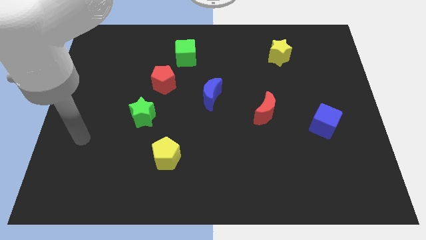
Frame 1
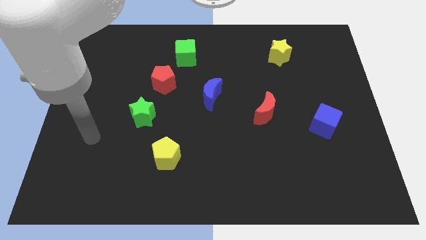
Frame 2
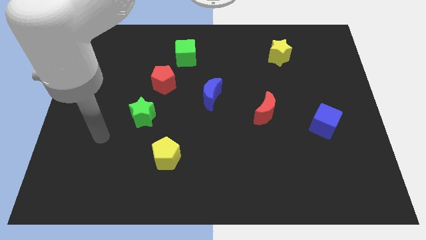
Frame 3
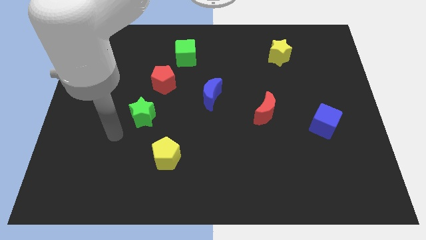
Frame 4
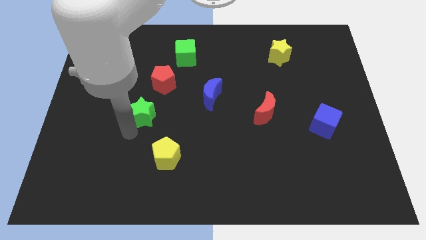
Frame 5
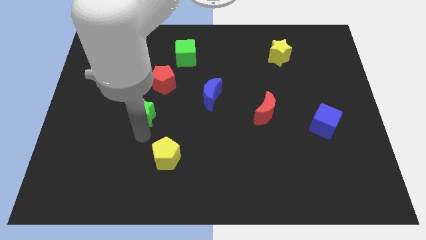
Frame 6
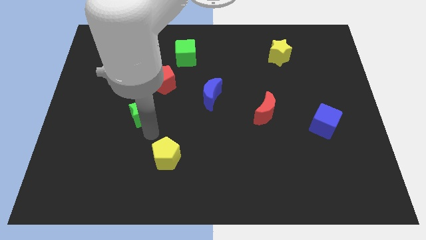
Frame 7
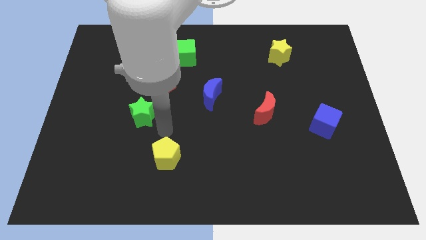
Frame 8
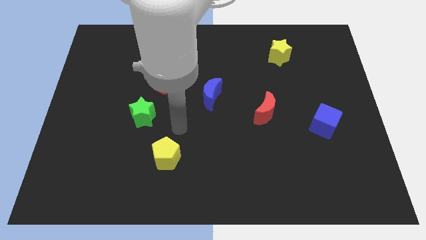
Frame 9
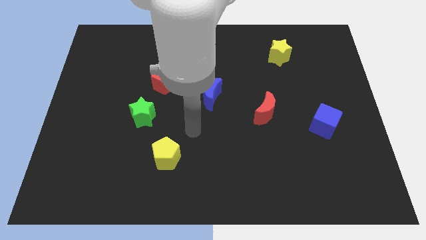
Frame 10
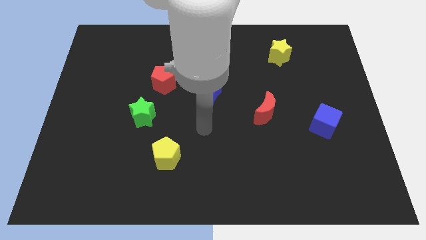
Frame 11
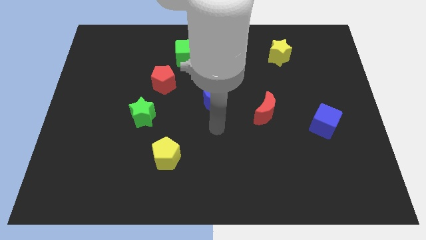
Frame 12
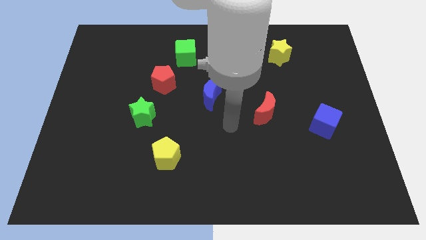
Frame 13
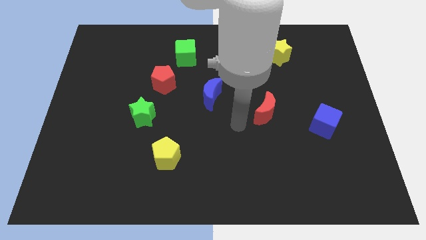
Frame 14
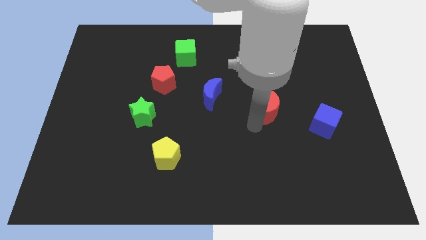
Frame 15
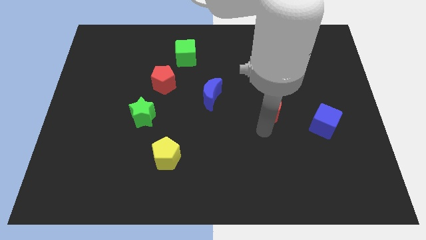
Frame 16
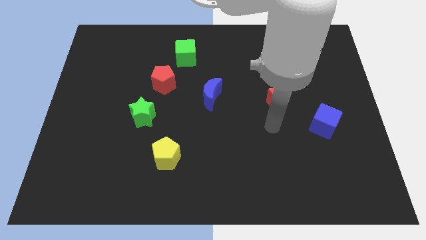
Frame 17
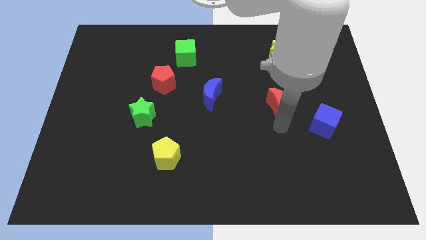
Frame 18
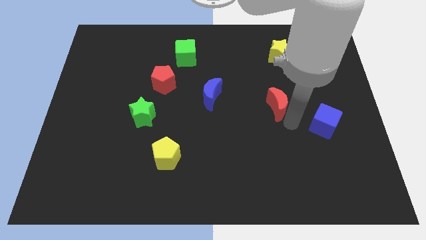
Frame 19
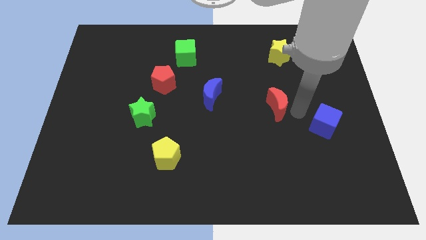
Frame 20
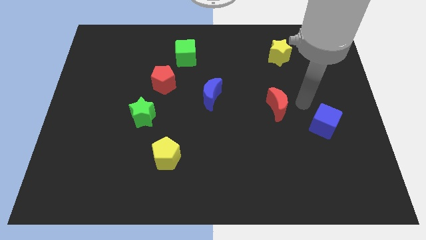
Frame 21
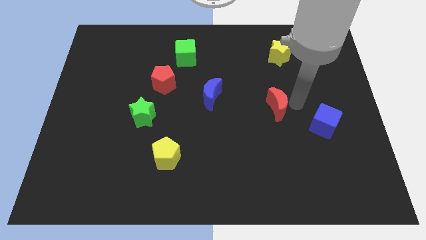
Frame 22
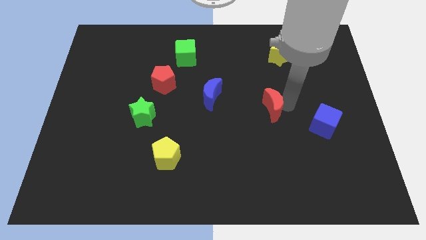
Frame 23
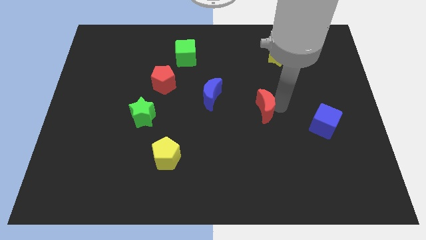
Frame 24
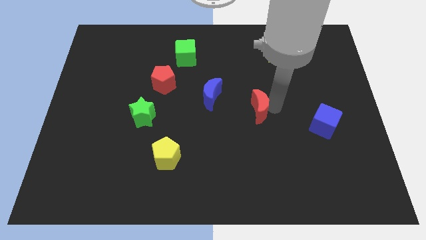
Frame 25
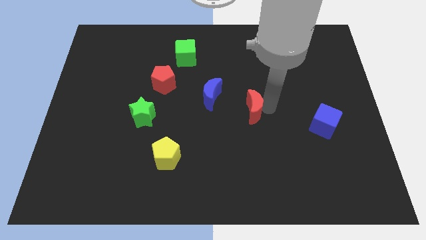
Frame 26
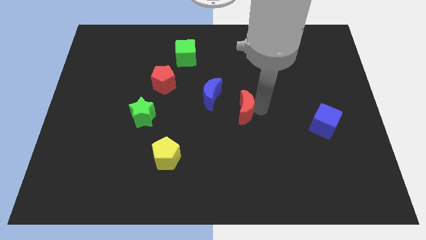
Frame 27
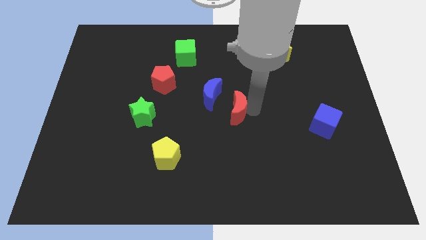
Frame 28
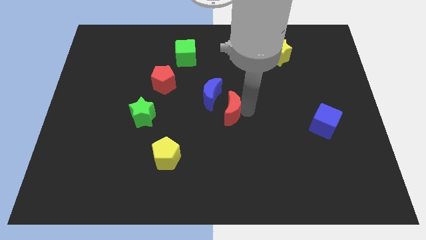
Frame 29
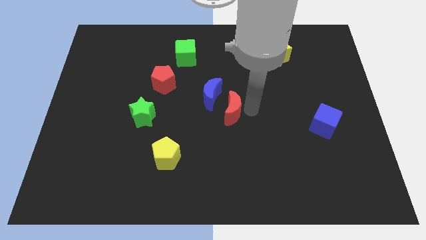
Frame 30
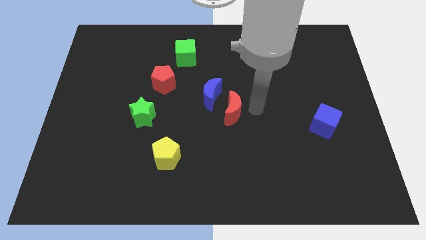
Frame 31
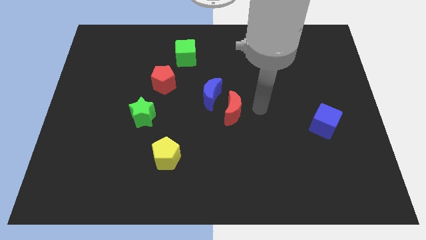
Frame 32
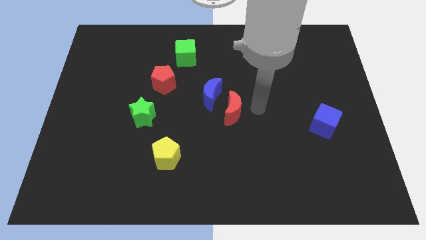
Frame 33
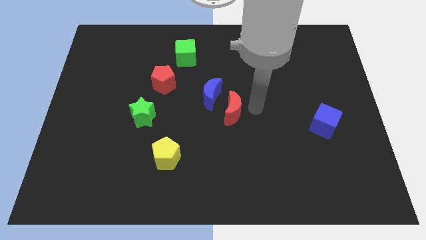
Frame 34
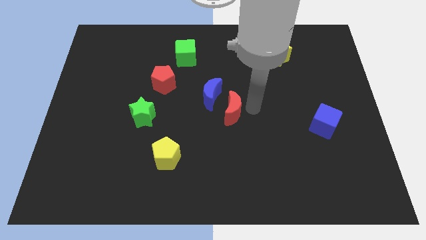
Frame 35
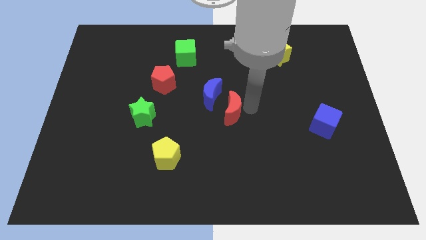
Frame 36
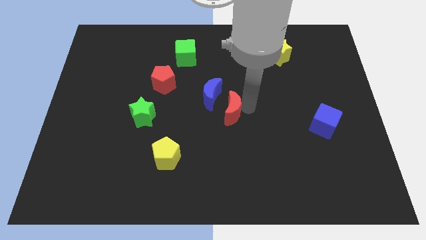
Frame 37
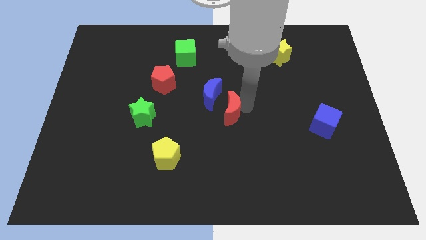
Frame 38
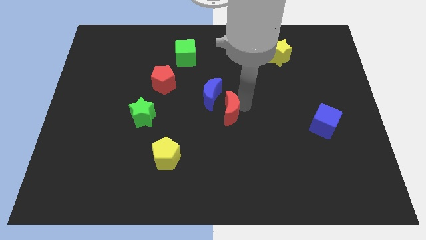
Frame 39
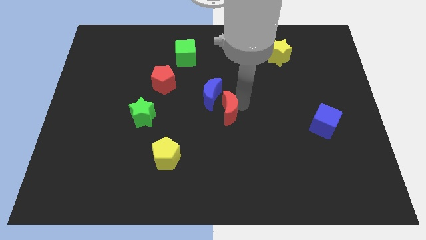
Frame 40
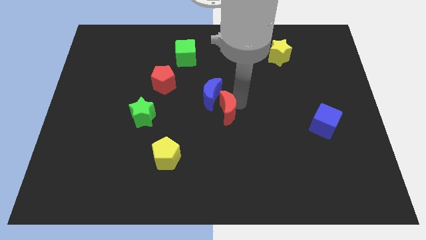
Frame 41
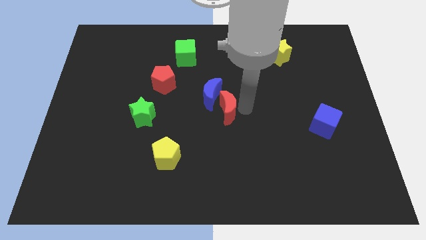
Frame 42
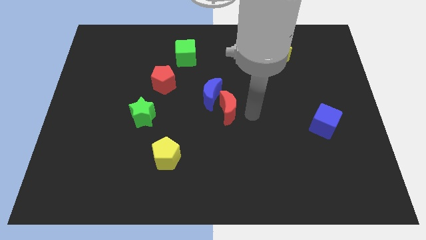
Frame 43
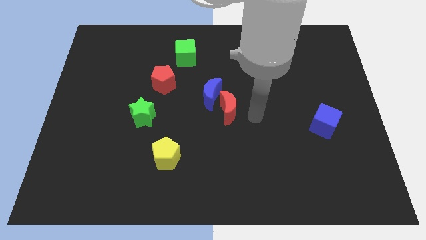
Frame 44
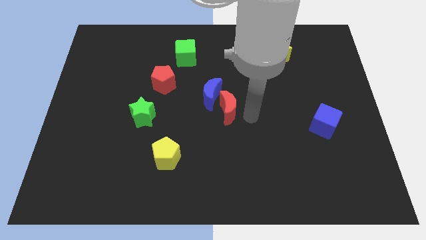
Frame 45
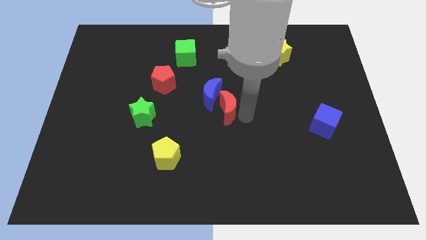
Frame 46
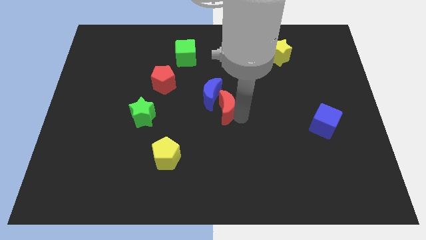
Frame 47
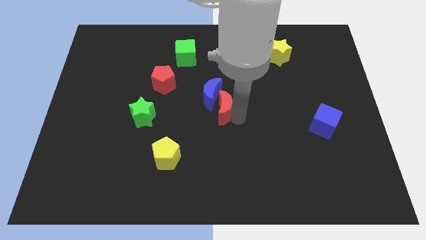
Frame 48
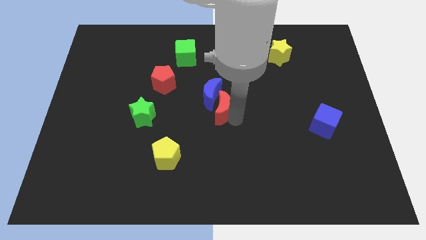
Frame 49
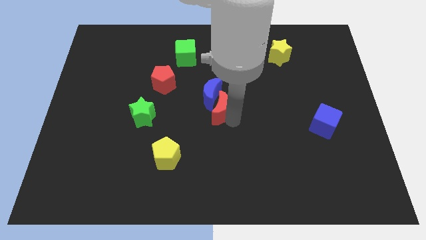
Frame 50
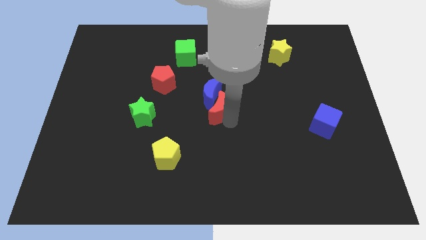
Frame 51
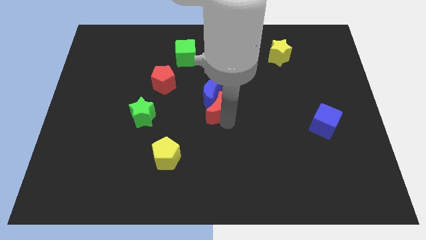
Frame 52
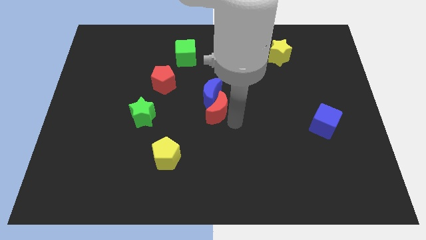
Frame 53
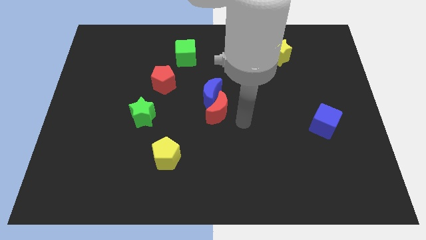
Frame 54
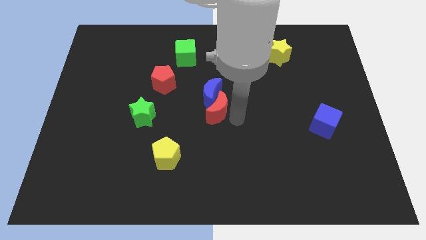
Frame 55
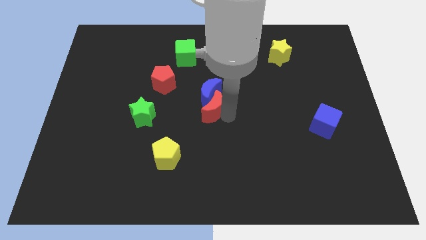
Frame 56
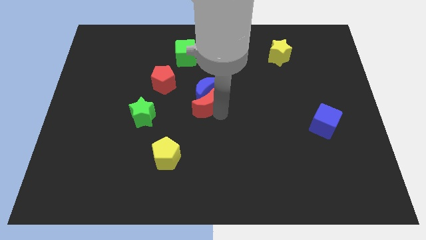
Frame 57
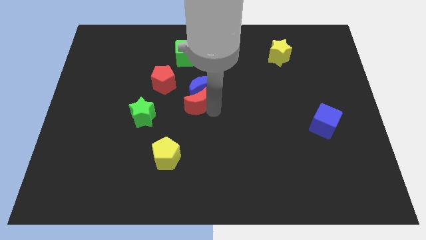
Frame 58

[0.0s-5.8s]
push the red moon diagonally down and to the right of the red pentagon

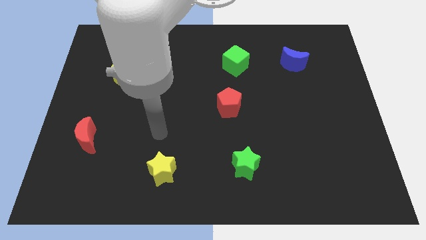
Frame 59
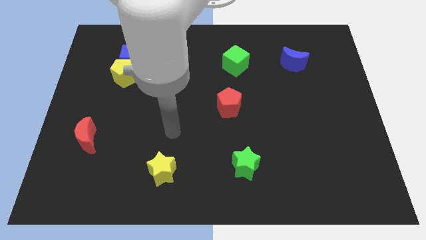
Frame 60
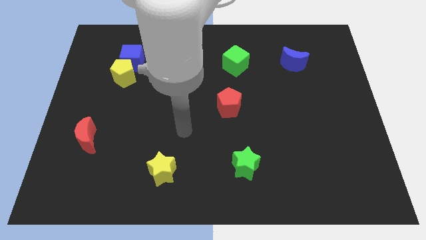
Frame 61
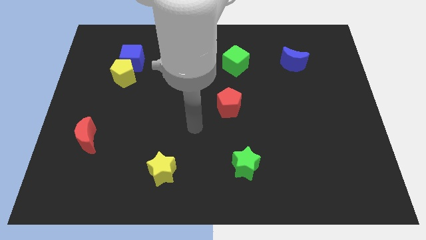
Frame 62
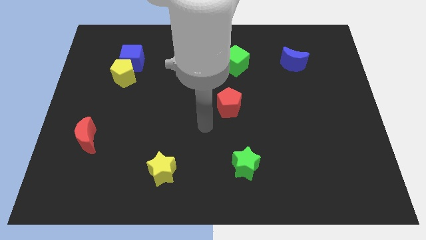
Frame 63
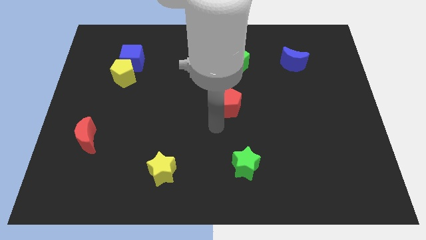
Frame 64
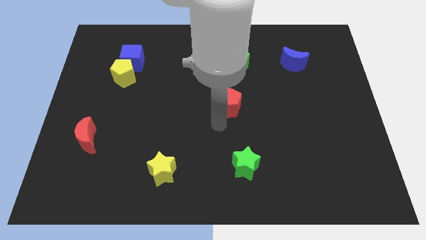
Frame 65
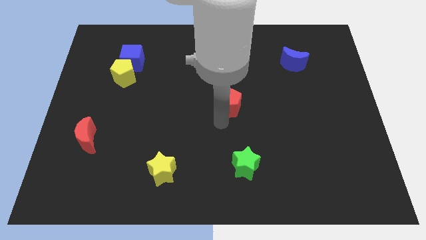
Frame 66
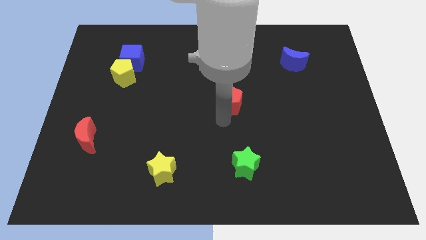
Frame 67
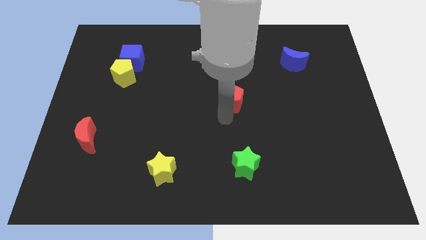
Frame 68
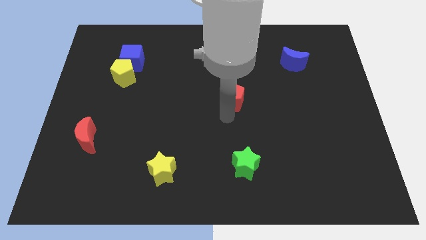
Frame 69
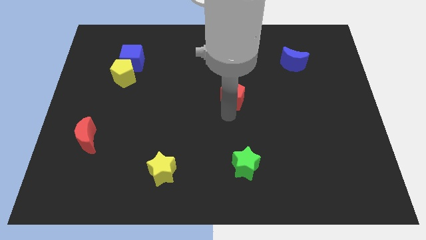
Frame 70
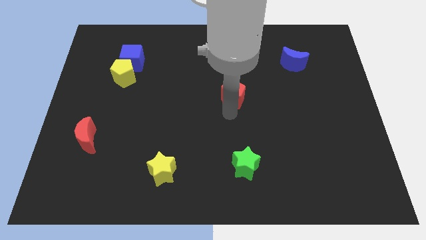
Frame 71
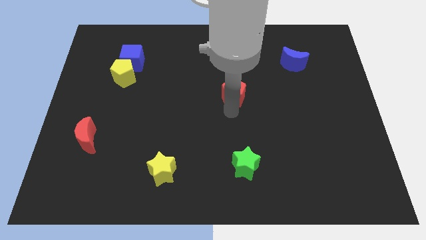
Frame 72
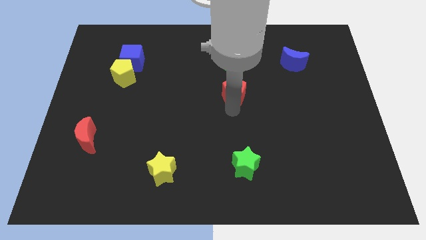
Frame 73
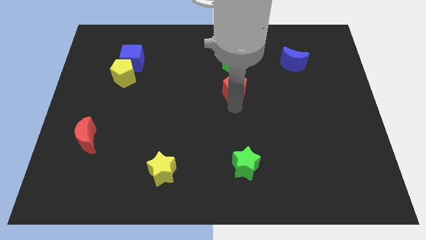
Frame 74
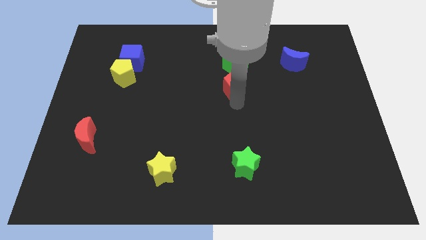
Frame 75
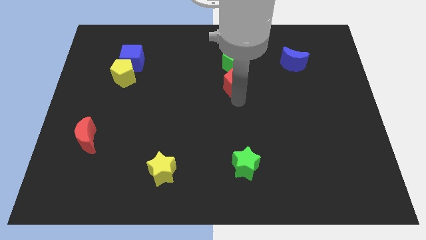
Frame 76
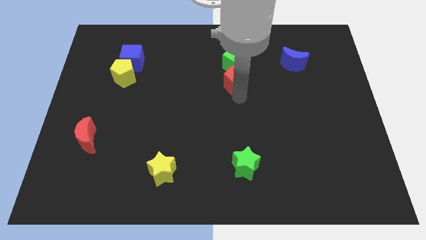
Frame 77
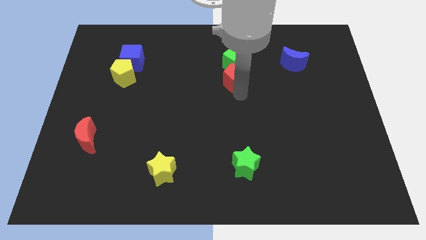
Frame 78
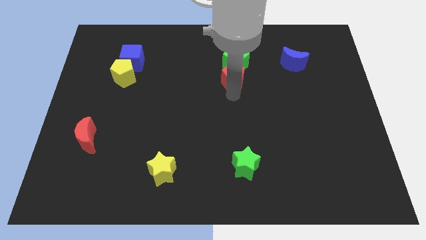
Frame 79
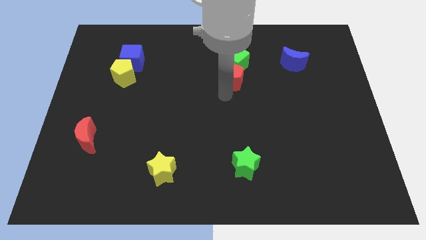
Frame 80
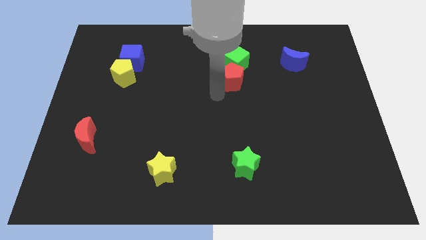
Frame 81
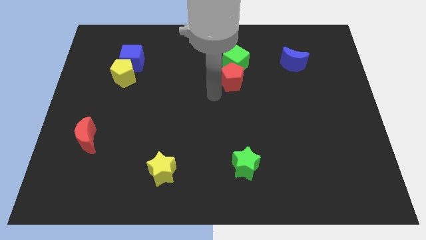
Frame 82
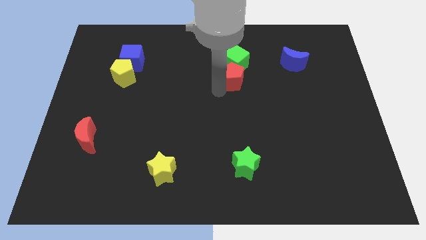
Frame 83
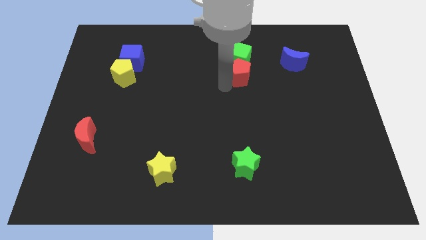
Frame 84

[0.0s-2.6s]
slide the red pentagon to the left of the blue moon
